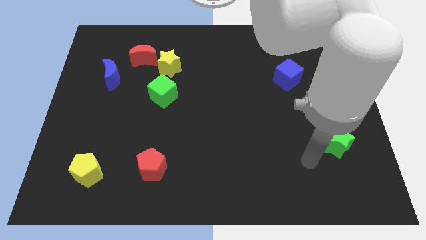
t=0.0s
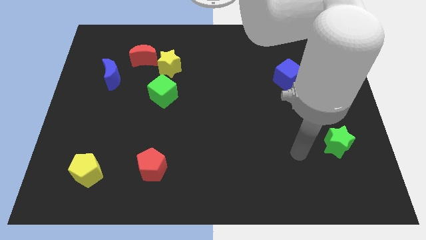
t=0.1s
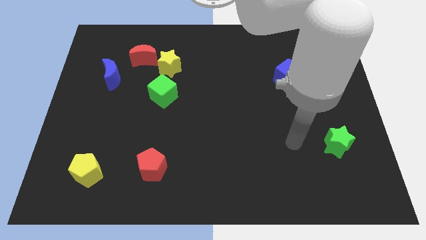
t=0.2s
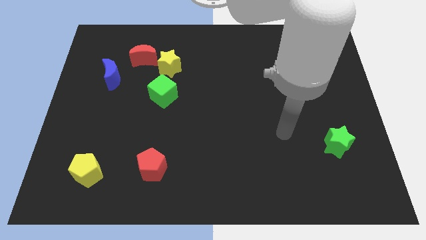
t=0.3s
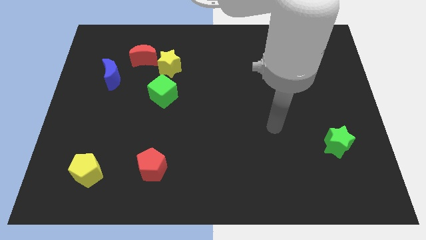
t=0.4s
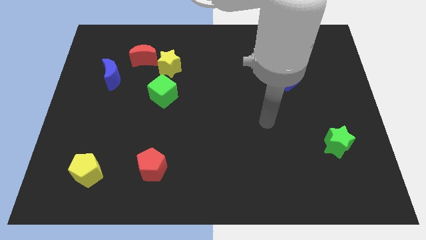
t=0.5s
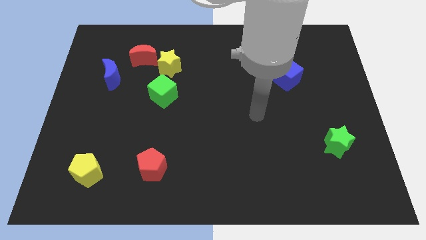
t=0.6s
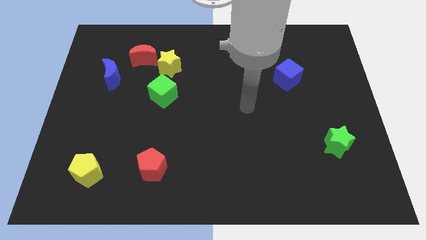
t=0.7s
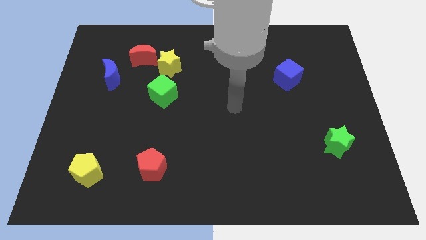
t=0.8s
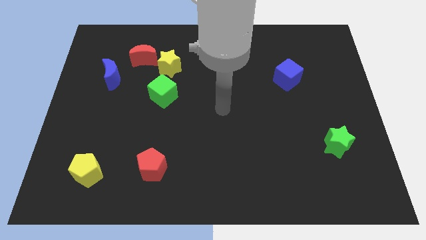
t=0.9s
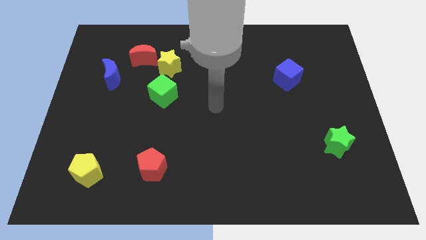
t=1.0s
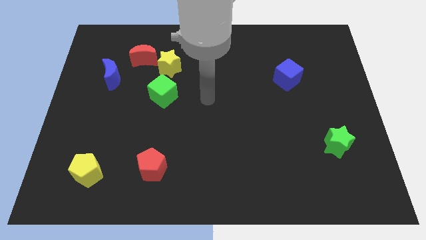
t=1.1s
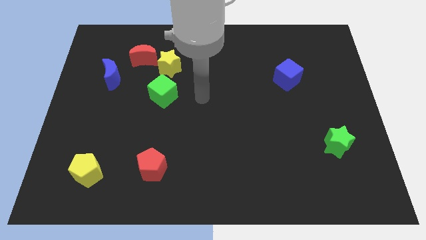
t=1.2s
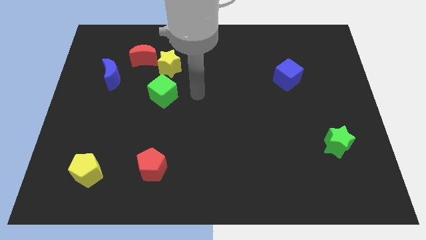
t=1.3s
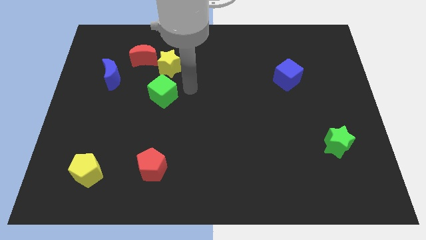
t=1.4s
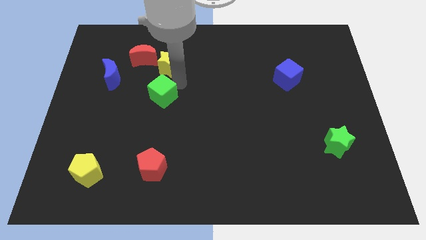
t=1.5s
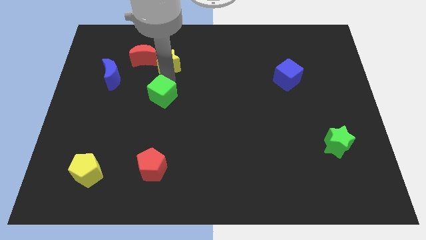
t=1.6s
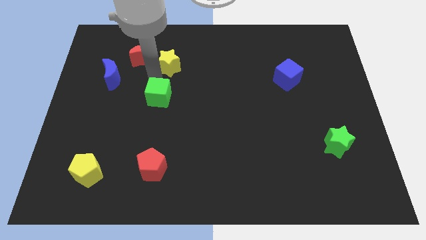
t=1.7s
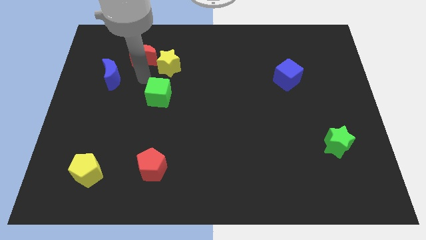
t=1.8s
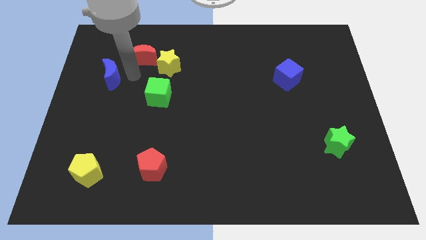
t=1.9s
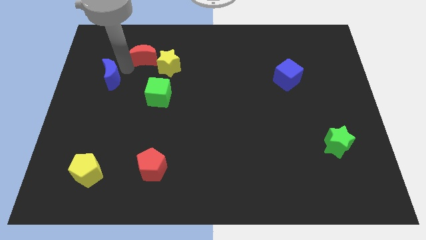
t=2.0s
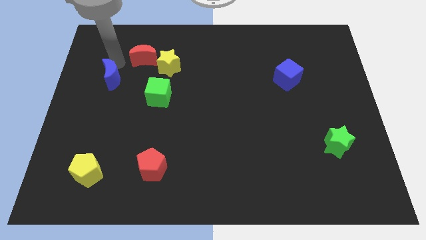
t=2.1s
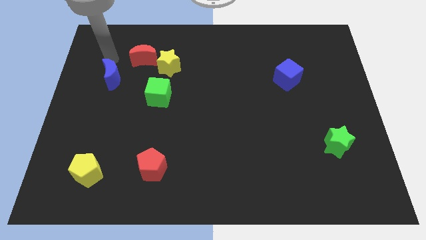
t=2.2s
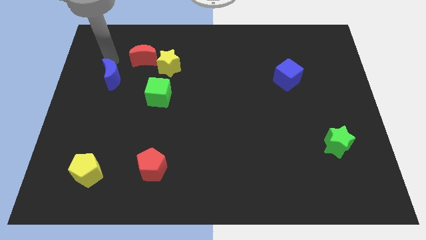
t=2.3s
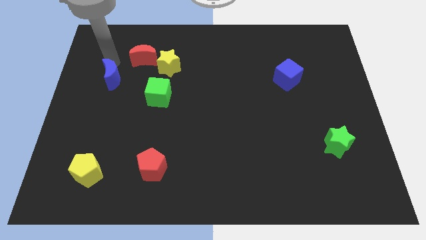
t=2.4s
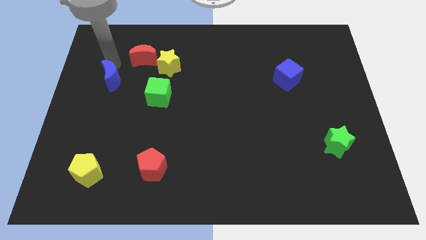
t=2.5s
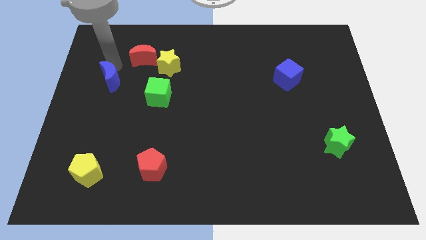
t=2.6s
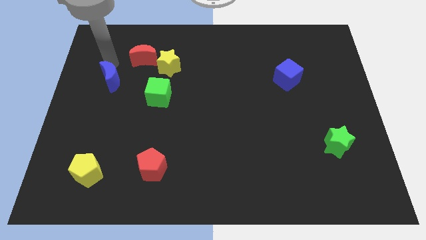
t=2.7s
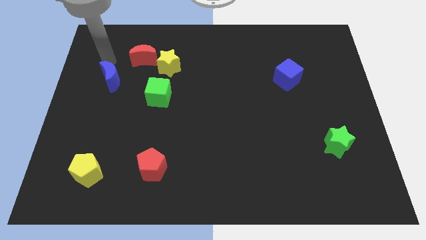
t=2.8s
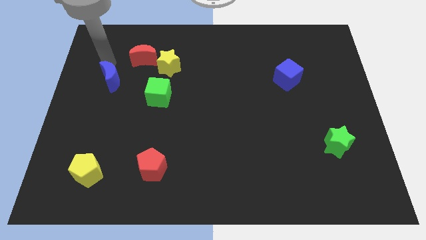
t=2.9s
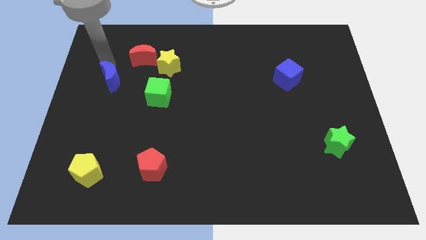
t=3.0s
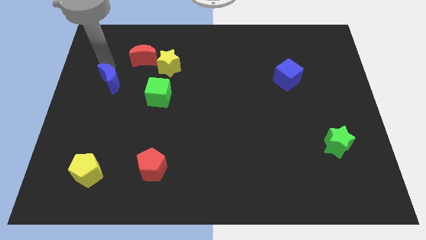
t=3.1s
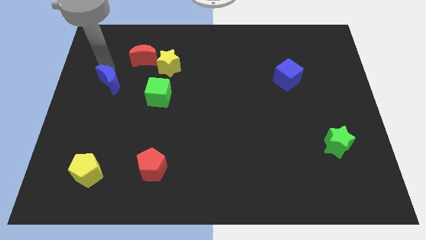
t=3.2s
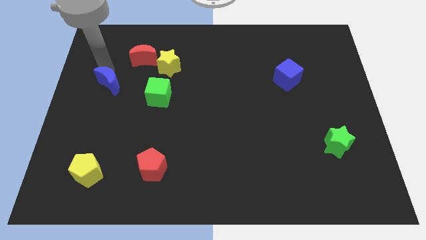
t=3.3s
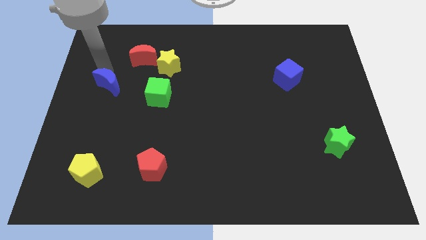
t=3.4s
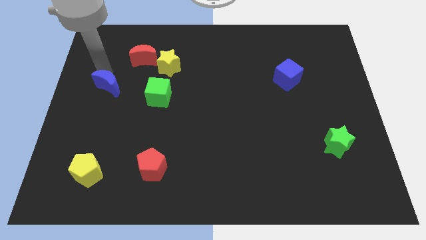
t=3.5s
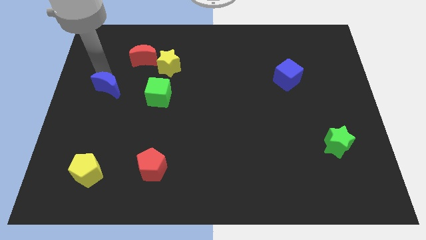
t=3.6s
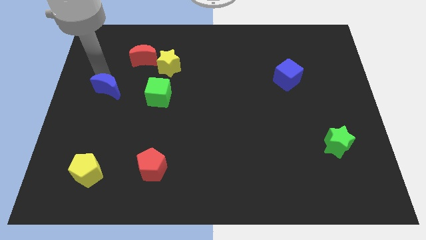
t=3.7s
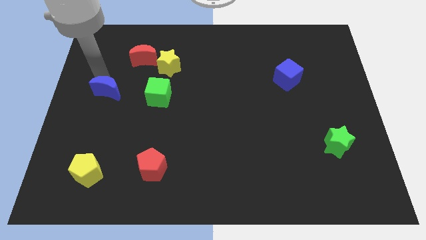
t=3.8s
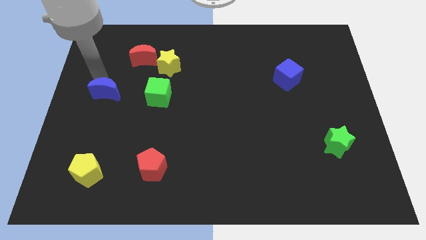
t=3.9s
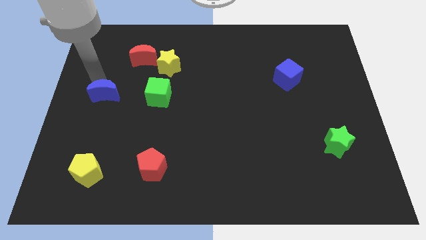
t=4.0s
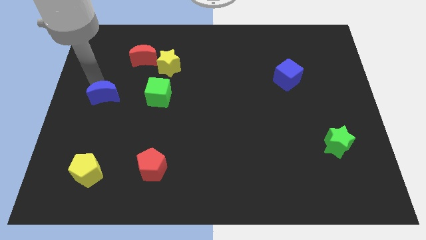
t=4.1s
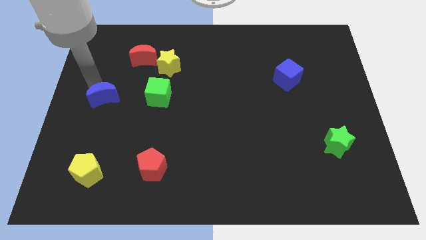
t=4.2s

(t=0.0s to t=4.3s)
move the blue moon a bit down

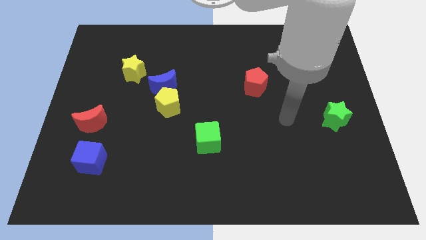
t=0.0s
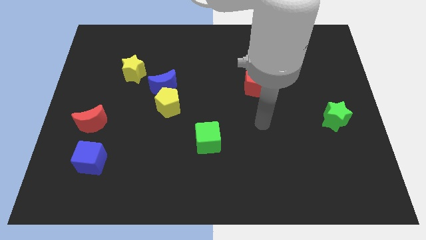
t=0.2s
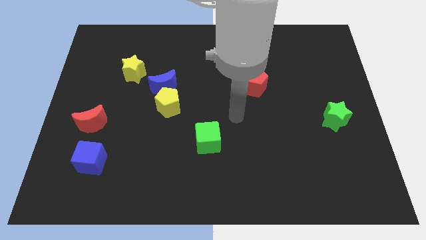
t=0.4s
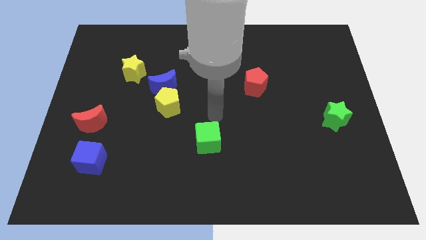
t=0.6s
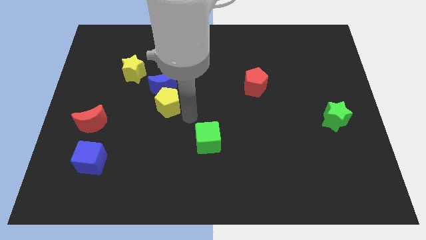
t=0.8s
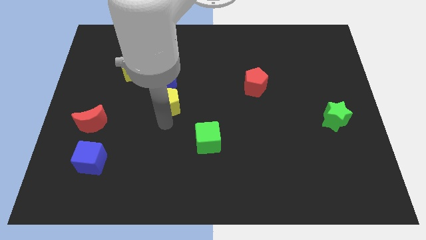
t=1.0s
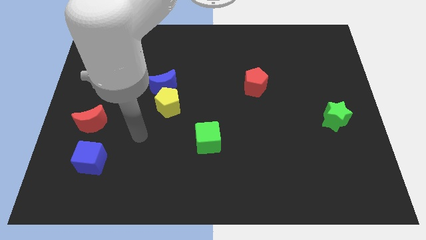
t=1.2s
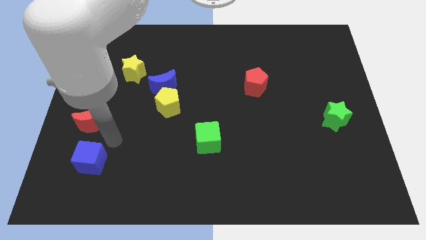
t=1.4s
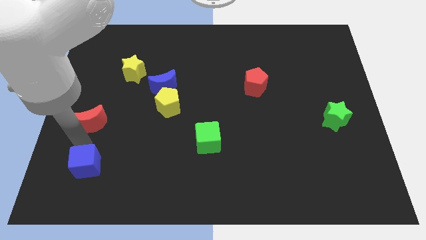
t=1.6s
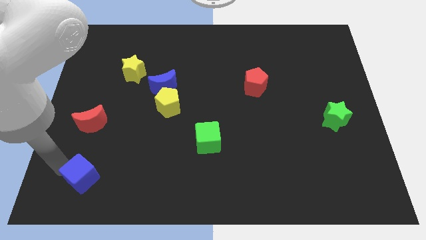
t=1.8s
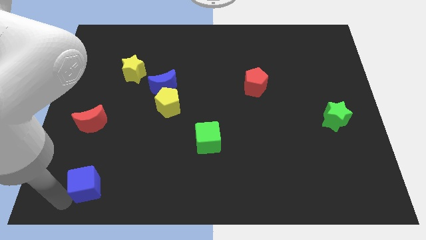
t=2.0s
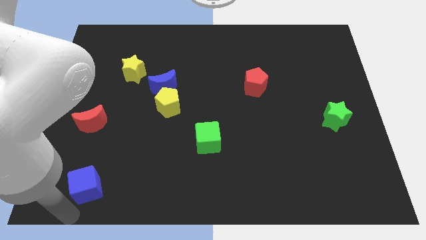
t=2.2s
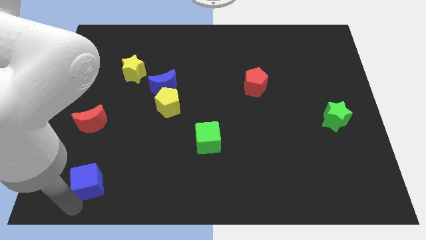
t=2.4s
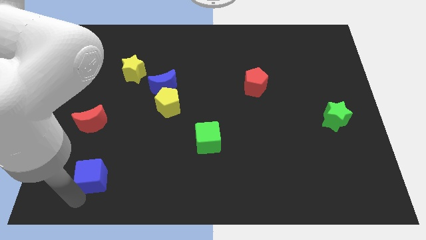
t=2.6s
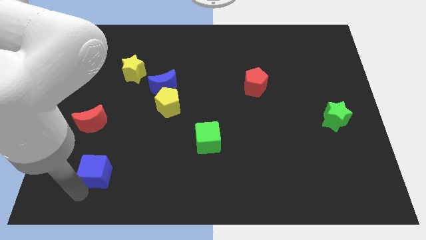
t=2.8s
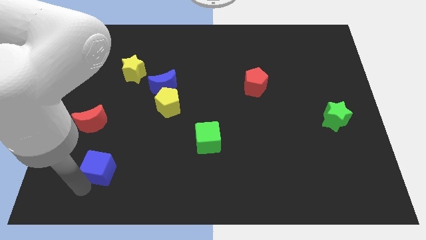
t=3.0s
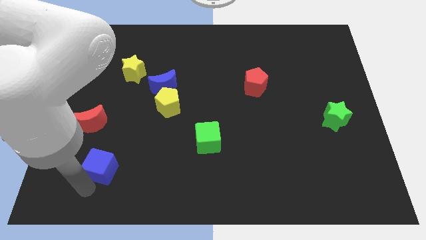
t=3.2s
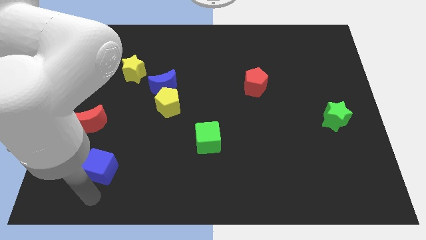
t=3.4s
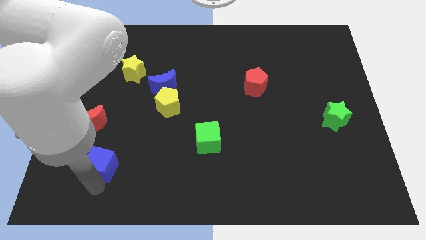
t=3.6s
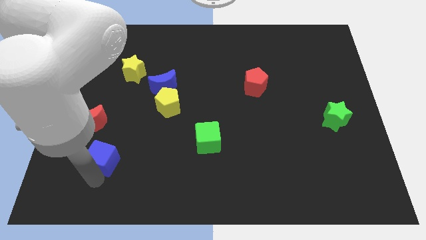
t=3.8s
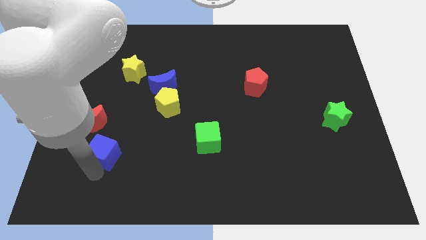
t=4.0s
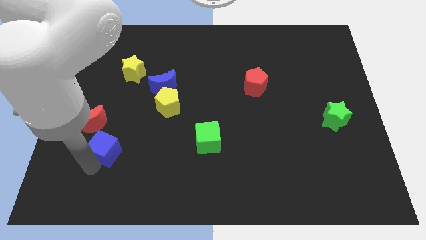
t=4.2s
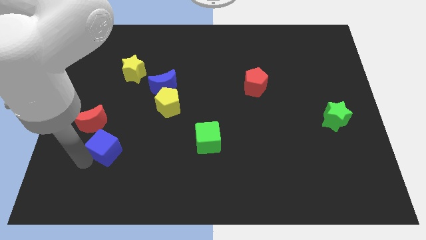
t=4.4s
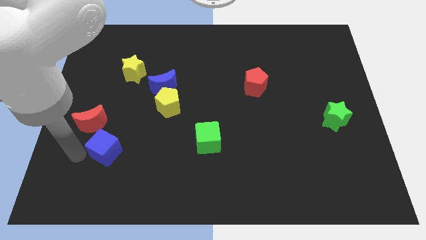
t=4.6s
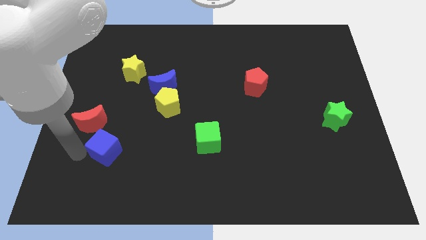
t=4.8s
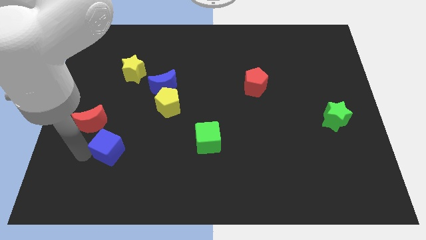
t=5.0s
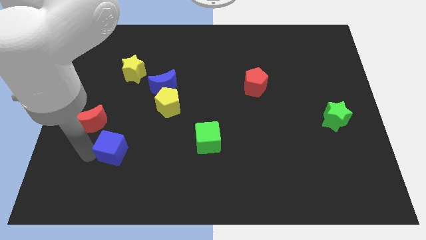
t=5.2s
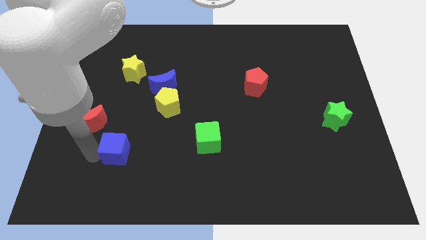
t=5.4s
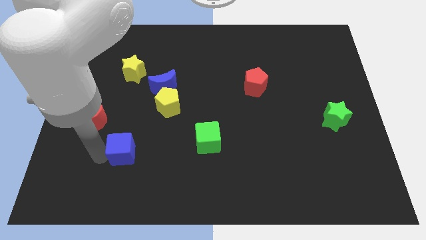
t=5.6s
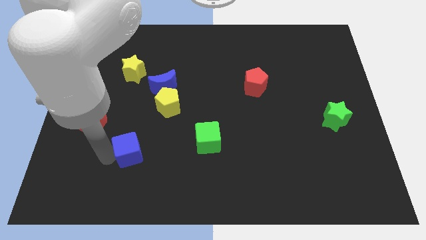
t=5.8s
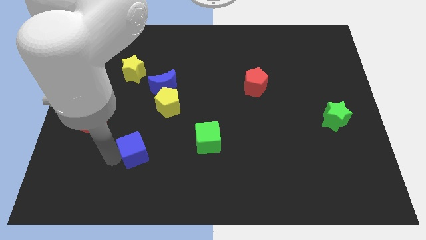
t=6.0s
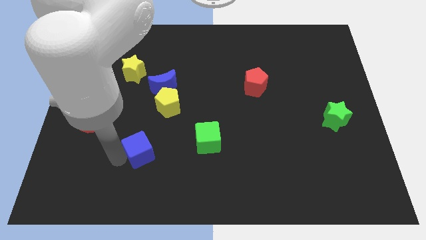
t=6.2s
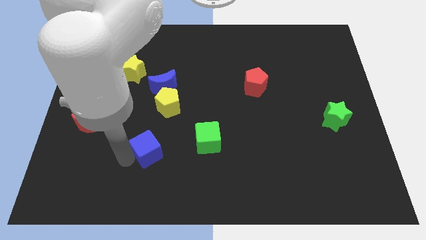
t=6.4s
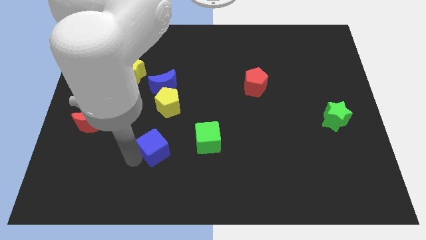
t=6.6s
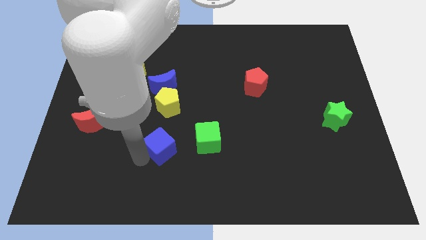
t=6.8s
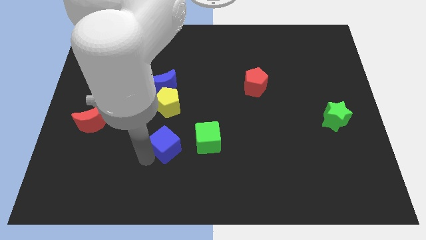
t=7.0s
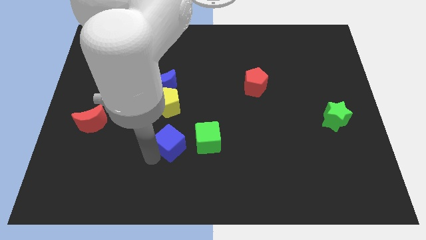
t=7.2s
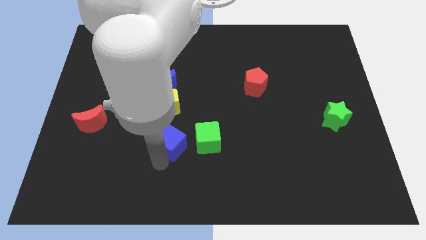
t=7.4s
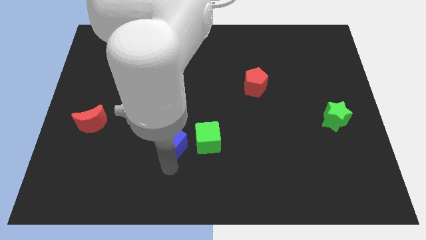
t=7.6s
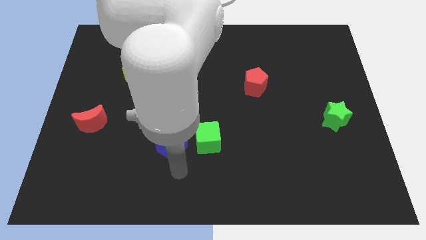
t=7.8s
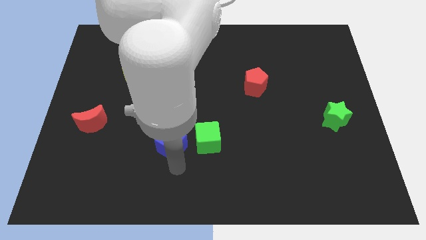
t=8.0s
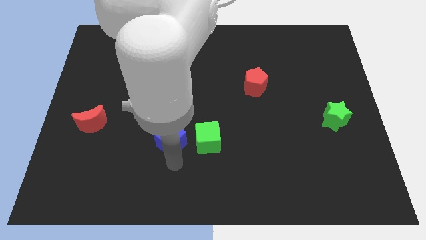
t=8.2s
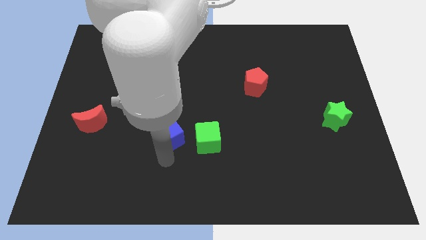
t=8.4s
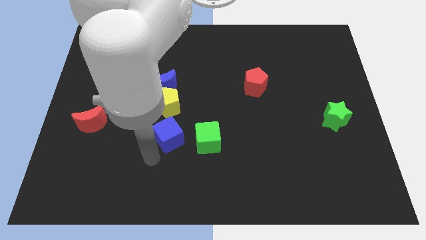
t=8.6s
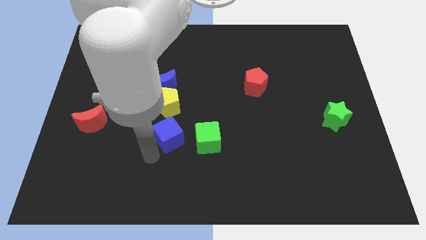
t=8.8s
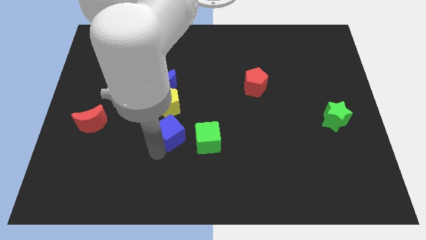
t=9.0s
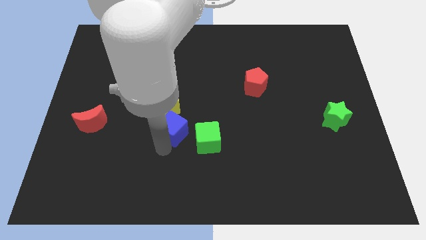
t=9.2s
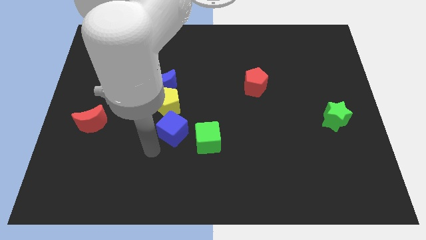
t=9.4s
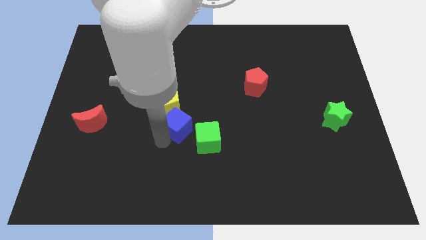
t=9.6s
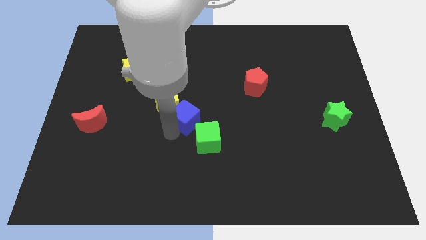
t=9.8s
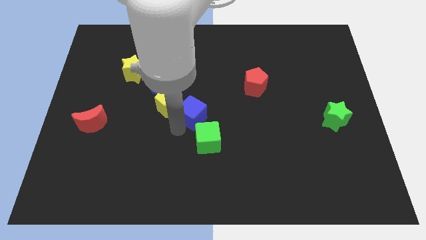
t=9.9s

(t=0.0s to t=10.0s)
push the blue cube upwards and then right
